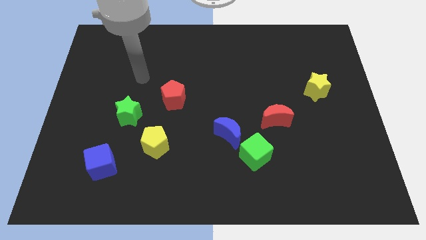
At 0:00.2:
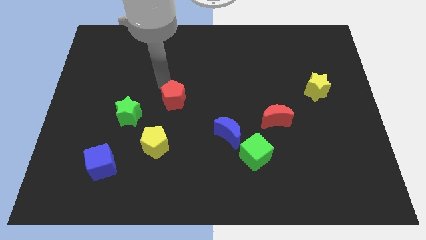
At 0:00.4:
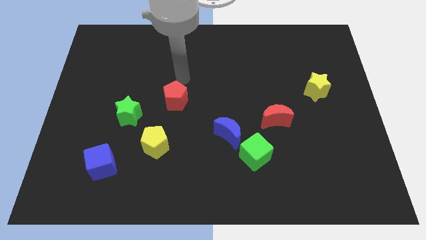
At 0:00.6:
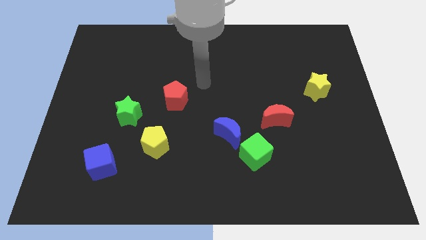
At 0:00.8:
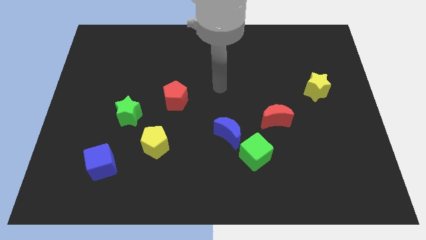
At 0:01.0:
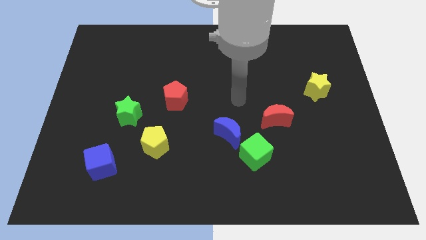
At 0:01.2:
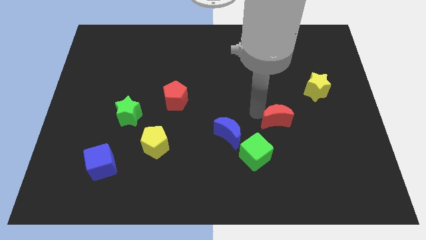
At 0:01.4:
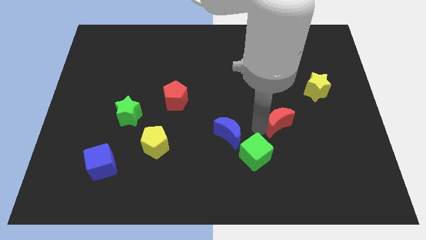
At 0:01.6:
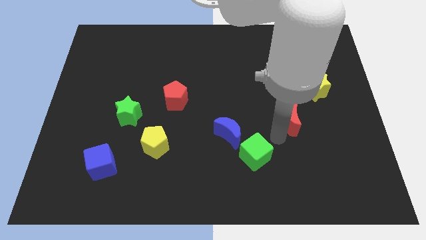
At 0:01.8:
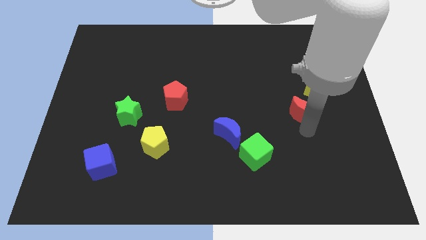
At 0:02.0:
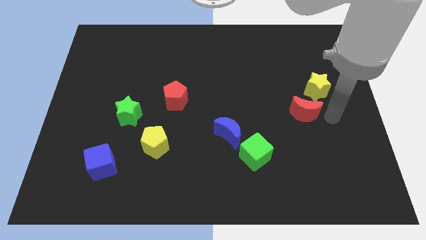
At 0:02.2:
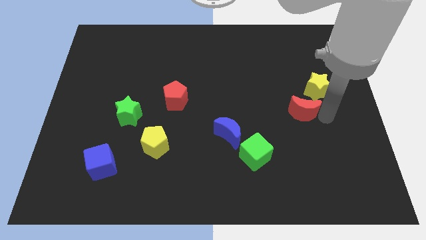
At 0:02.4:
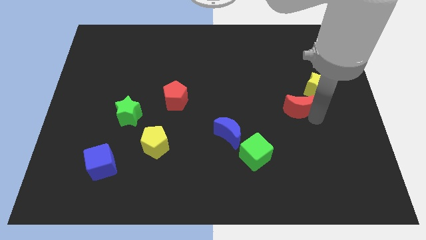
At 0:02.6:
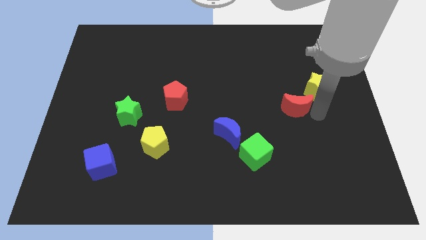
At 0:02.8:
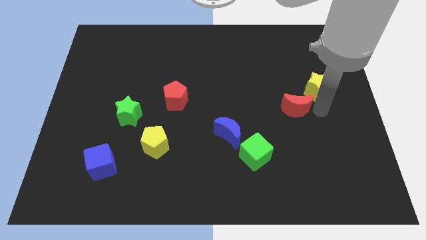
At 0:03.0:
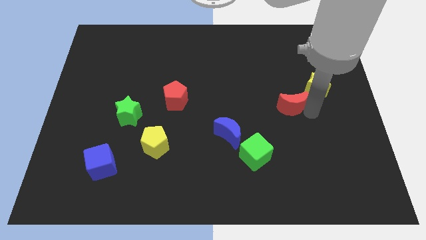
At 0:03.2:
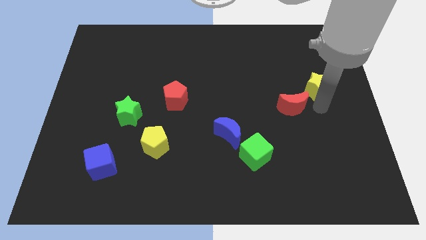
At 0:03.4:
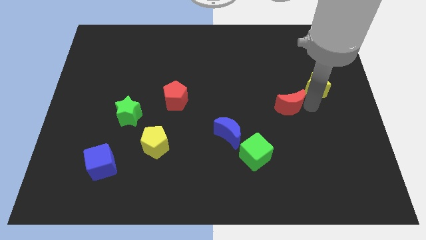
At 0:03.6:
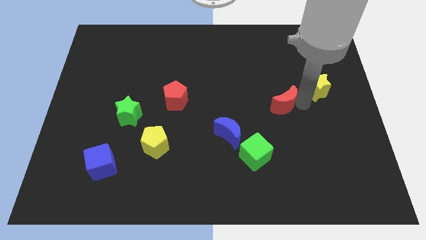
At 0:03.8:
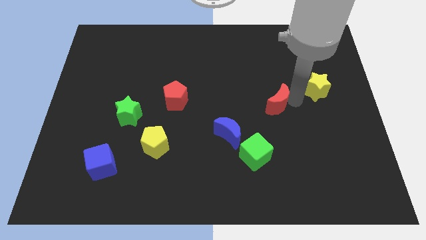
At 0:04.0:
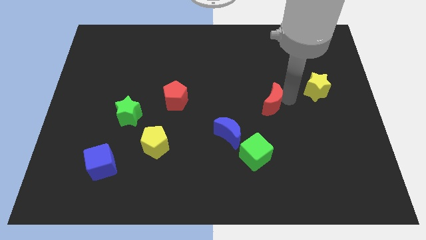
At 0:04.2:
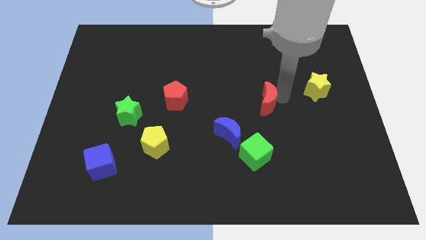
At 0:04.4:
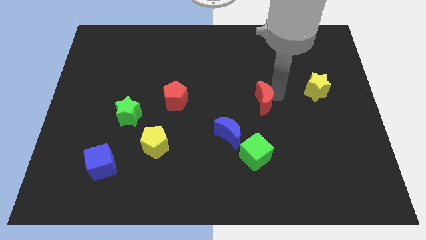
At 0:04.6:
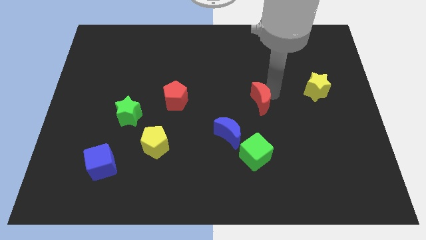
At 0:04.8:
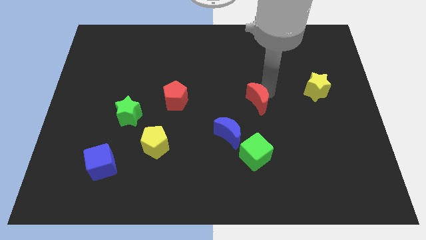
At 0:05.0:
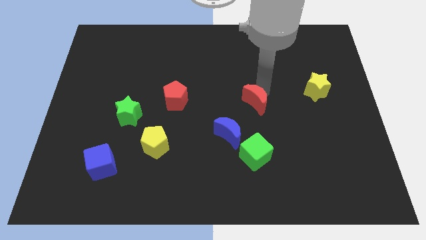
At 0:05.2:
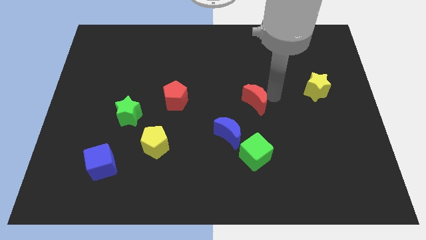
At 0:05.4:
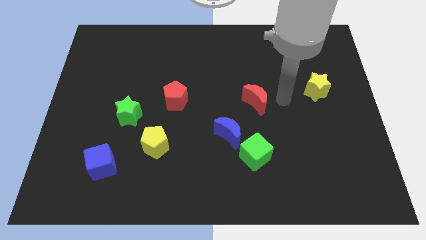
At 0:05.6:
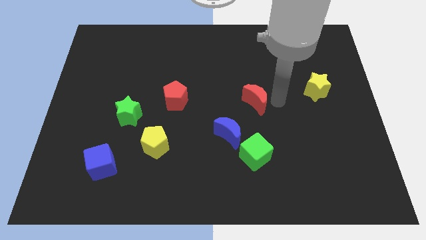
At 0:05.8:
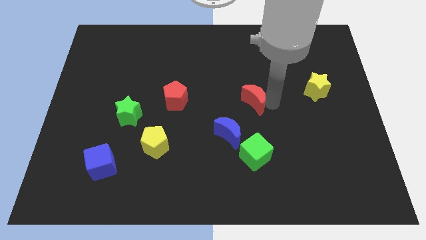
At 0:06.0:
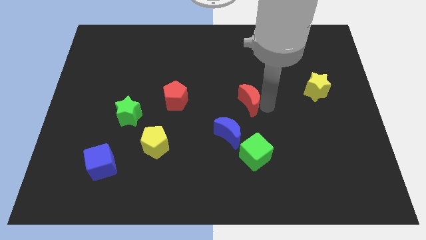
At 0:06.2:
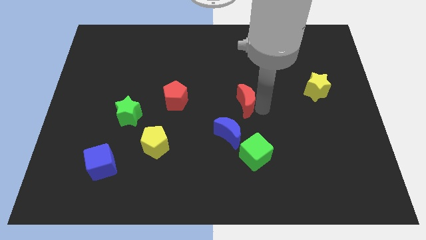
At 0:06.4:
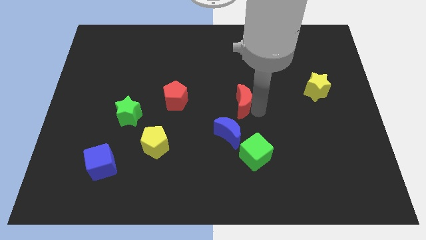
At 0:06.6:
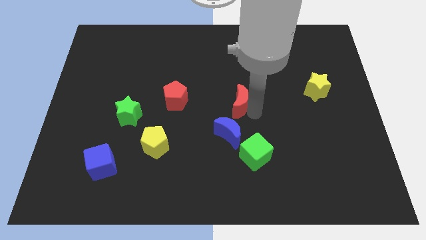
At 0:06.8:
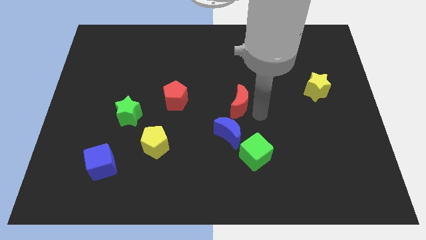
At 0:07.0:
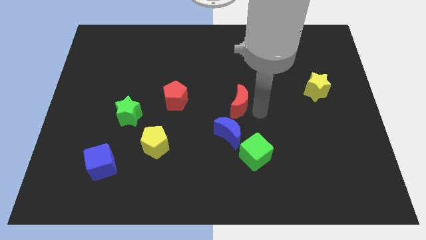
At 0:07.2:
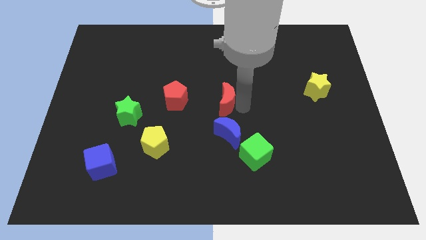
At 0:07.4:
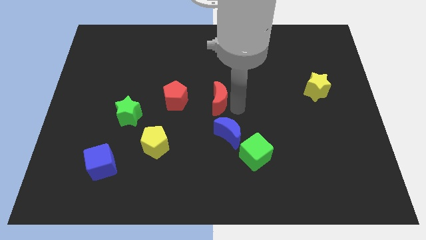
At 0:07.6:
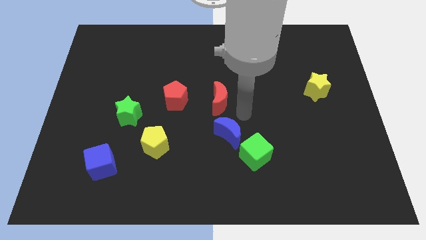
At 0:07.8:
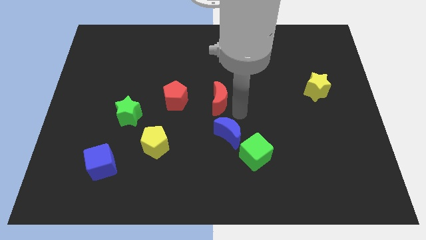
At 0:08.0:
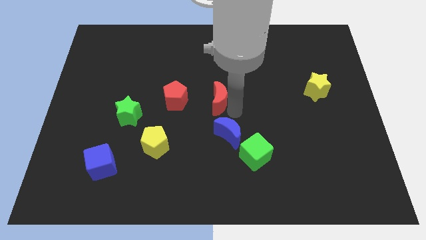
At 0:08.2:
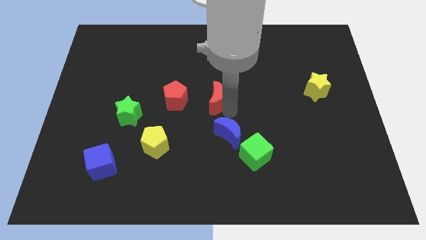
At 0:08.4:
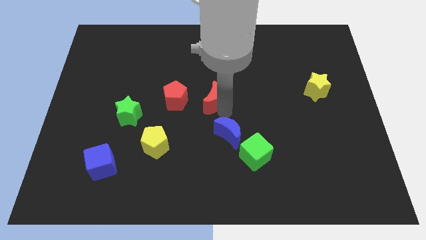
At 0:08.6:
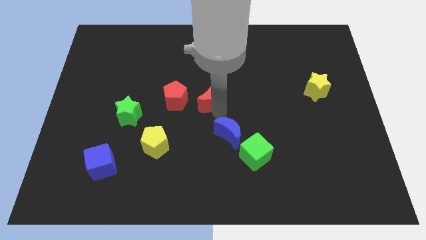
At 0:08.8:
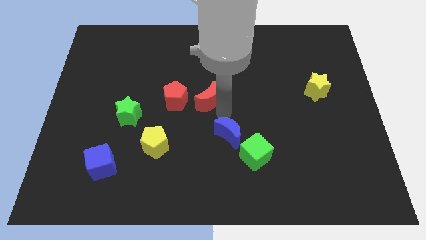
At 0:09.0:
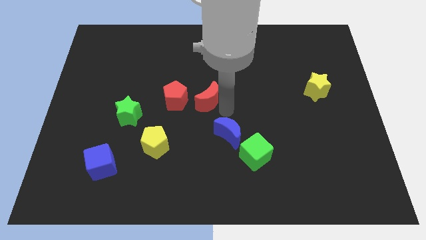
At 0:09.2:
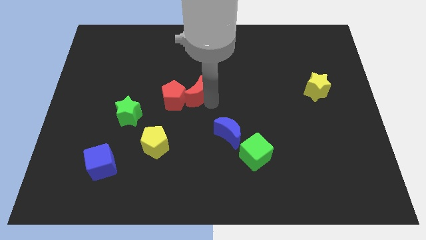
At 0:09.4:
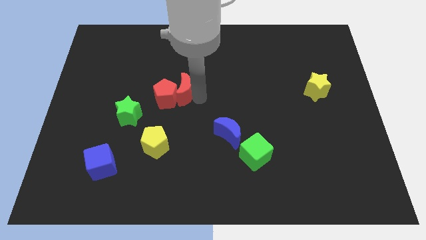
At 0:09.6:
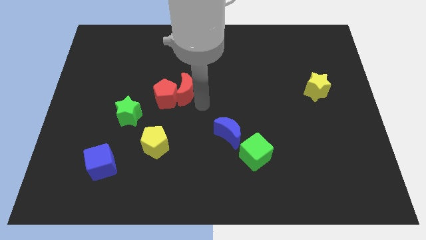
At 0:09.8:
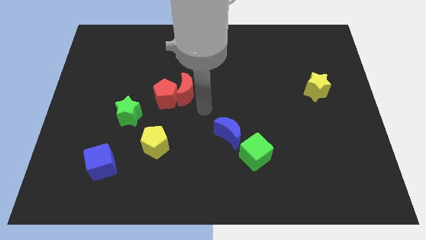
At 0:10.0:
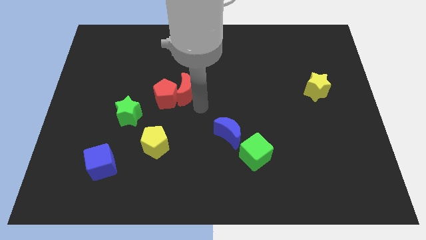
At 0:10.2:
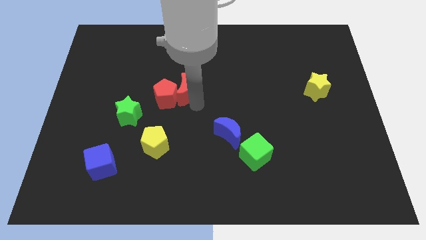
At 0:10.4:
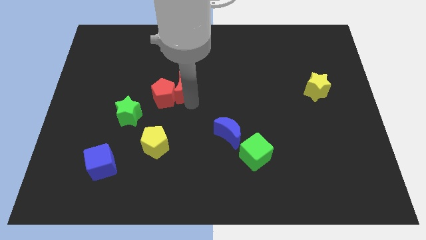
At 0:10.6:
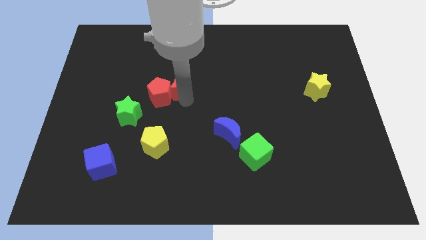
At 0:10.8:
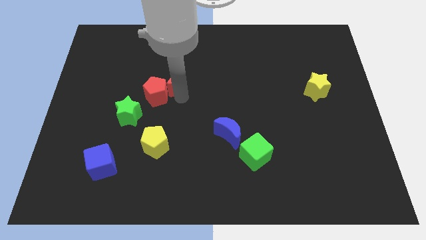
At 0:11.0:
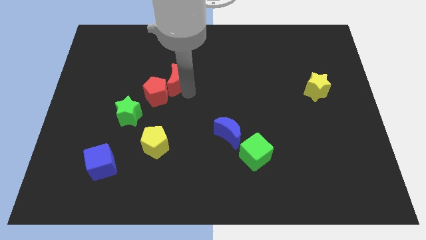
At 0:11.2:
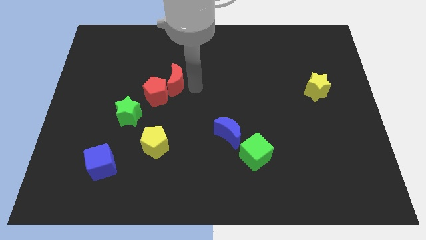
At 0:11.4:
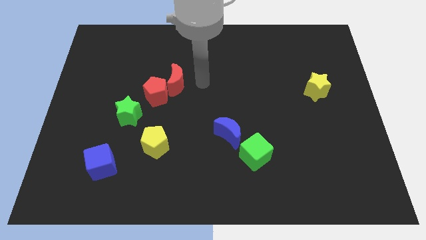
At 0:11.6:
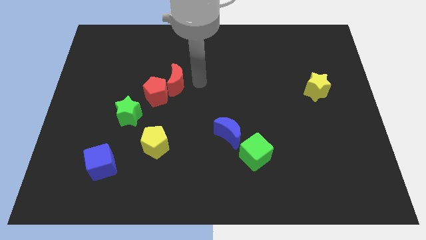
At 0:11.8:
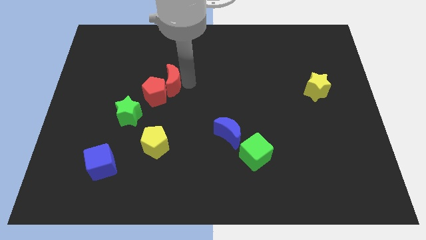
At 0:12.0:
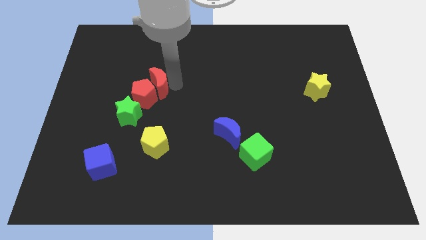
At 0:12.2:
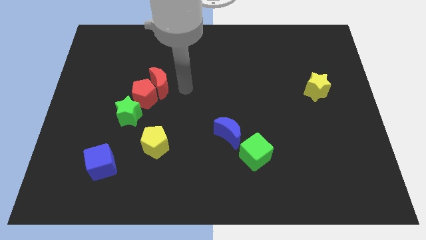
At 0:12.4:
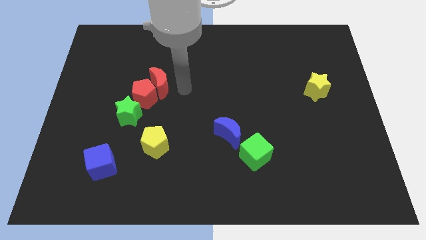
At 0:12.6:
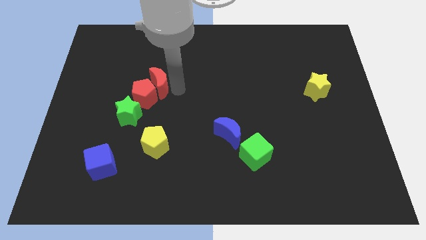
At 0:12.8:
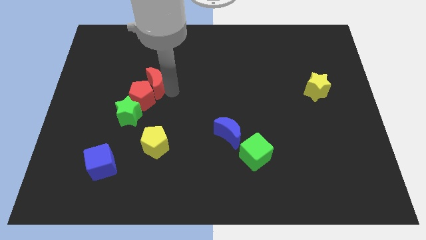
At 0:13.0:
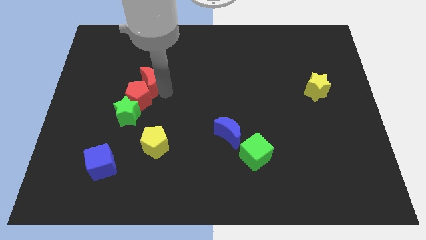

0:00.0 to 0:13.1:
push the red moon above the green star

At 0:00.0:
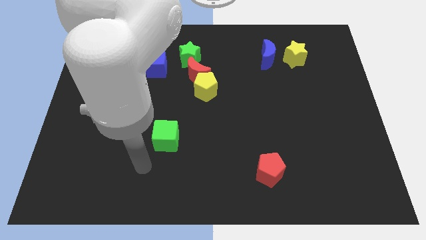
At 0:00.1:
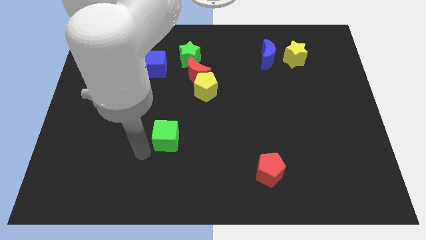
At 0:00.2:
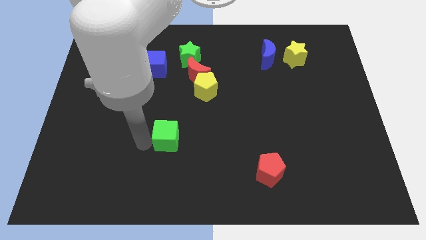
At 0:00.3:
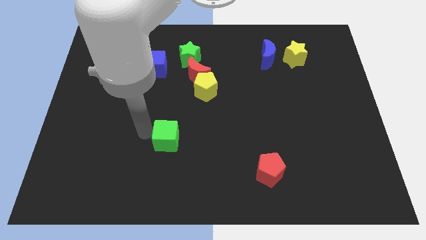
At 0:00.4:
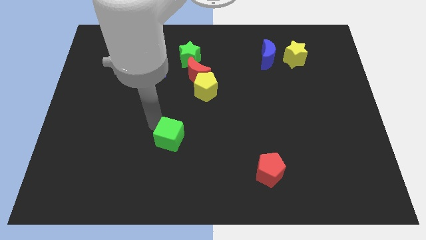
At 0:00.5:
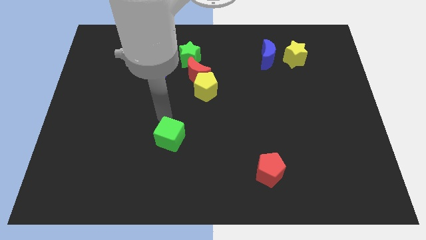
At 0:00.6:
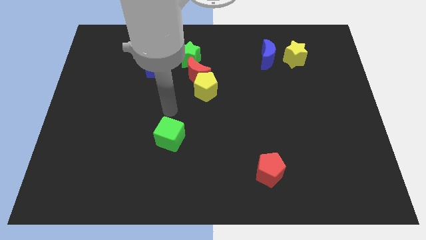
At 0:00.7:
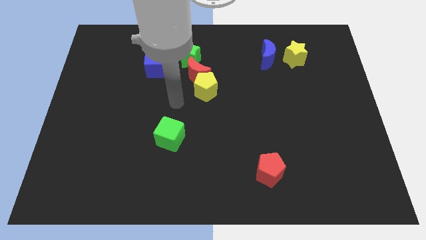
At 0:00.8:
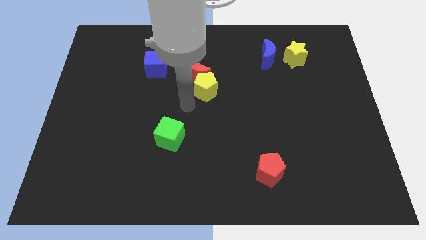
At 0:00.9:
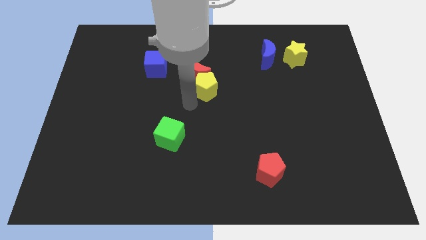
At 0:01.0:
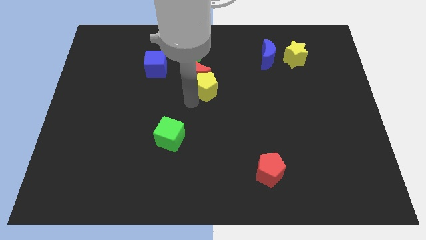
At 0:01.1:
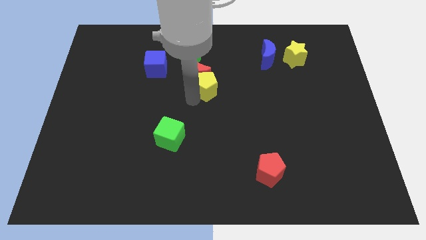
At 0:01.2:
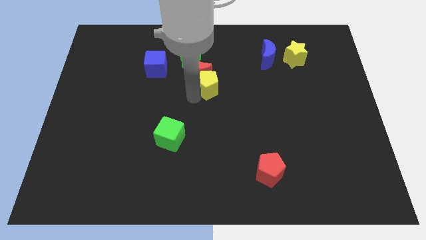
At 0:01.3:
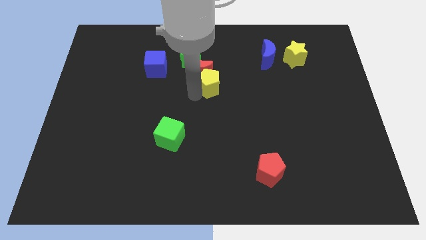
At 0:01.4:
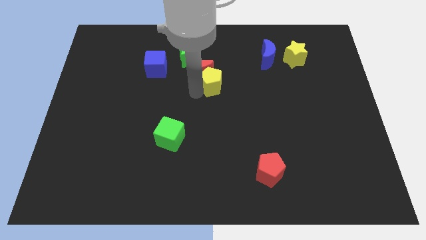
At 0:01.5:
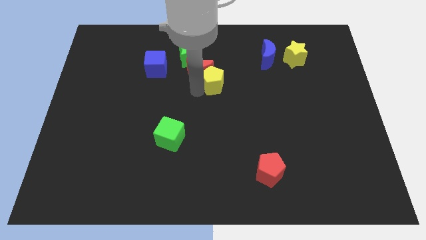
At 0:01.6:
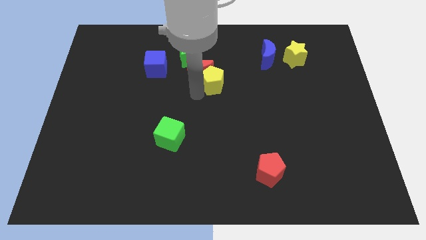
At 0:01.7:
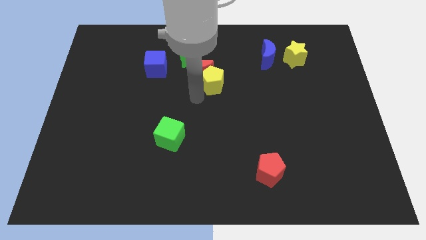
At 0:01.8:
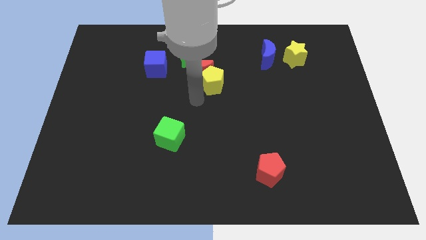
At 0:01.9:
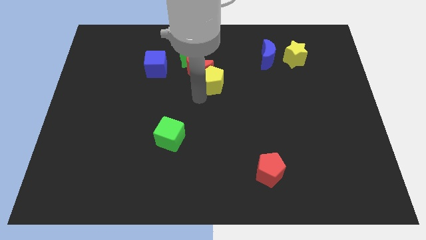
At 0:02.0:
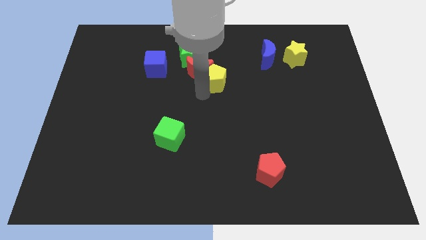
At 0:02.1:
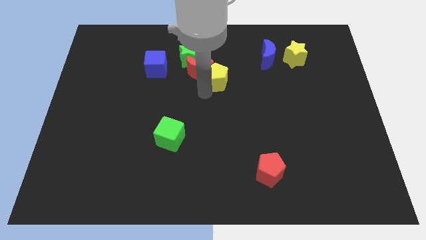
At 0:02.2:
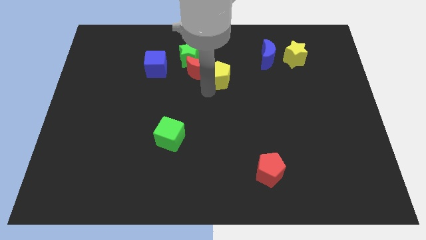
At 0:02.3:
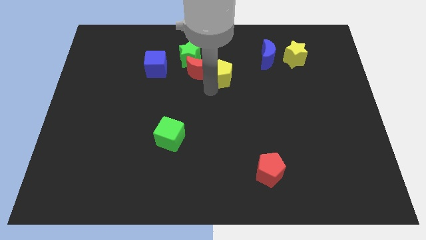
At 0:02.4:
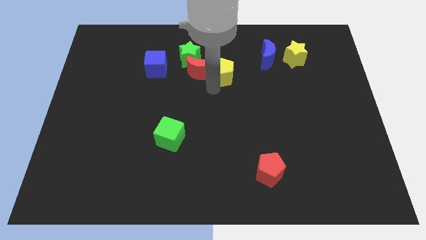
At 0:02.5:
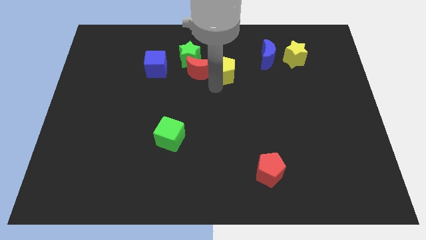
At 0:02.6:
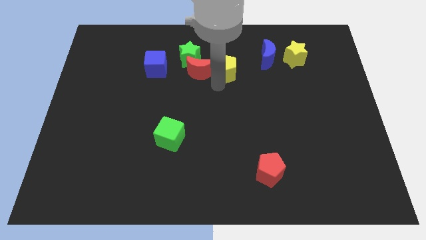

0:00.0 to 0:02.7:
slide the yellow pentagon to the left side of the blue moon
